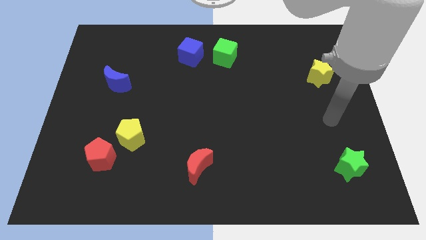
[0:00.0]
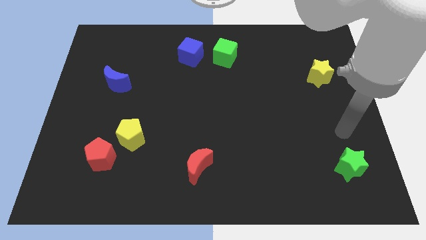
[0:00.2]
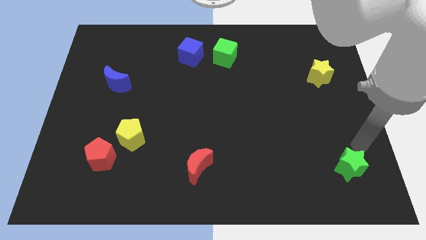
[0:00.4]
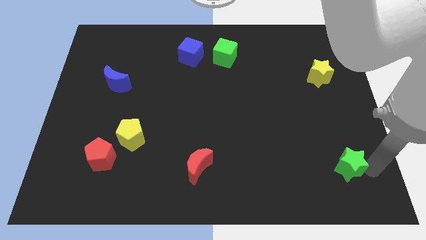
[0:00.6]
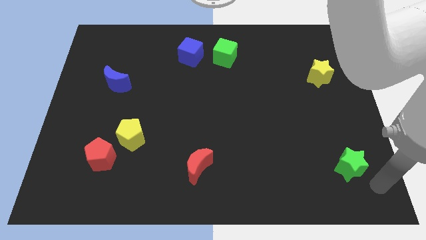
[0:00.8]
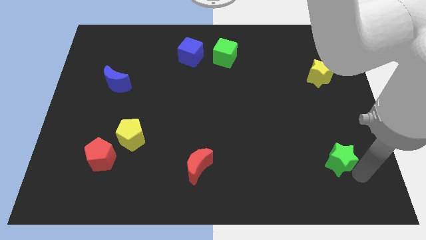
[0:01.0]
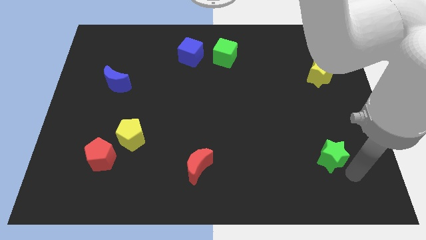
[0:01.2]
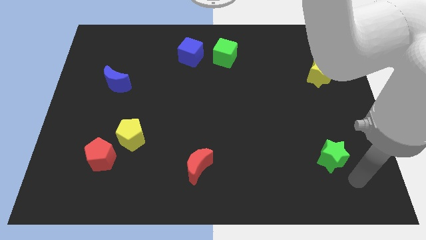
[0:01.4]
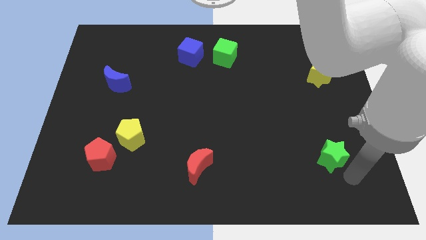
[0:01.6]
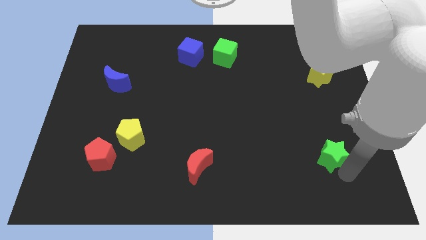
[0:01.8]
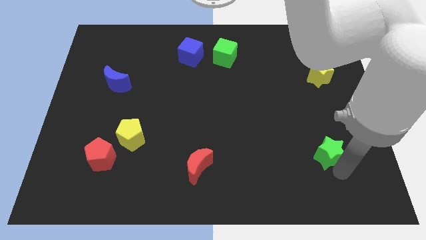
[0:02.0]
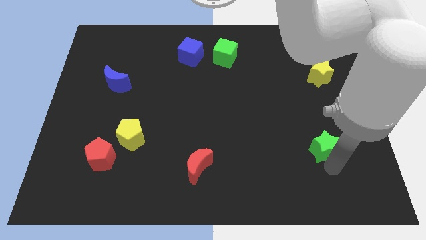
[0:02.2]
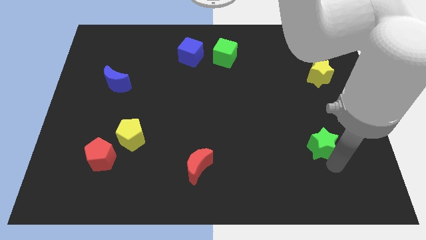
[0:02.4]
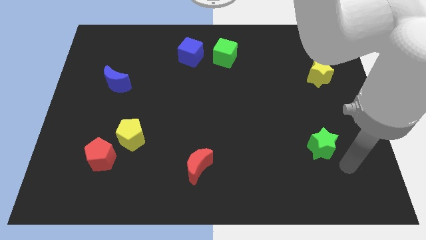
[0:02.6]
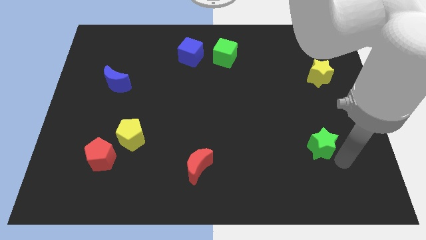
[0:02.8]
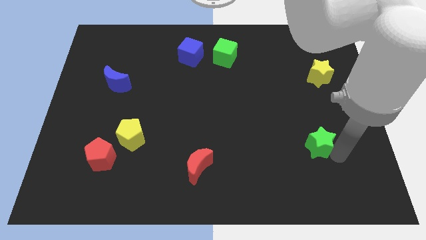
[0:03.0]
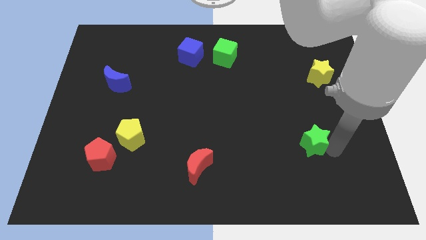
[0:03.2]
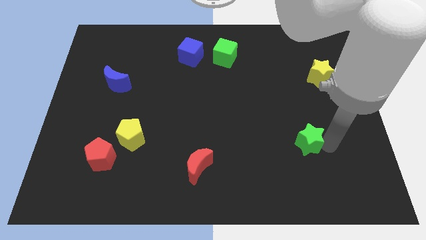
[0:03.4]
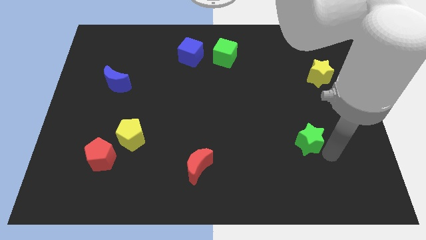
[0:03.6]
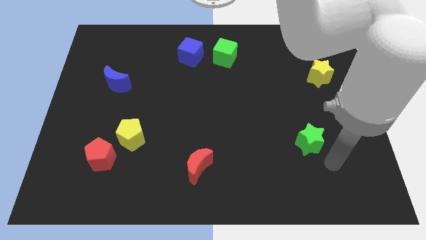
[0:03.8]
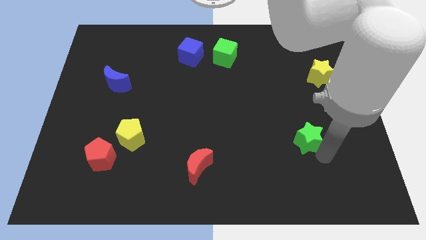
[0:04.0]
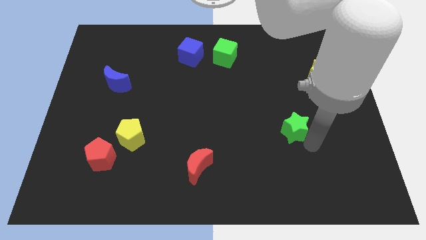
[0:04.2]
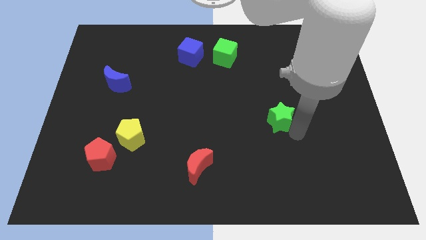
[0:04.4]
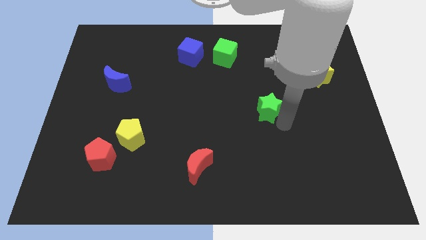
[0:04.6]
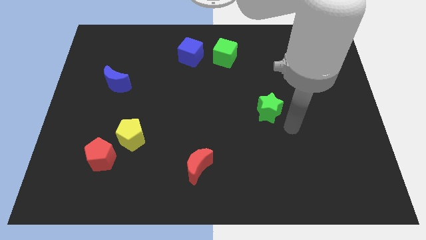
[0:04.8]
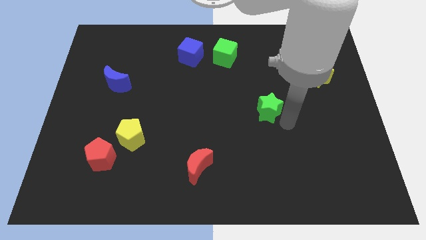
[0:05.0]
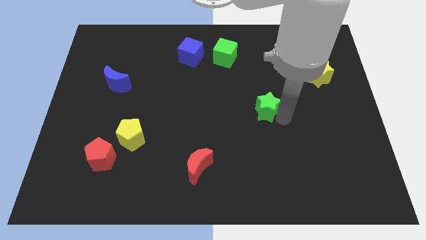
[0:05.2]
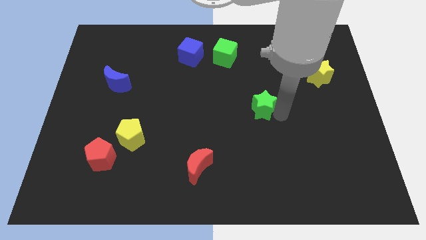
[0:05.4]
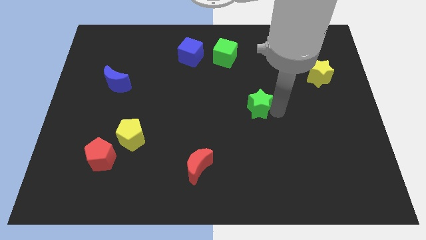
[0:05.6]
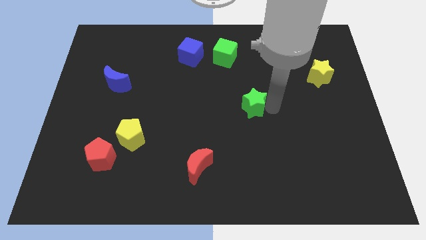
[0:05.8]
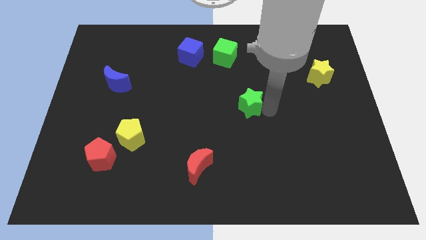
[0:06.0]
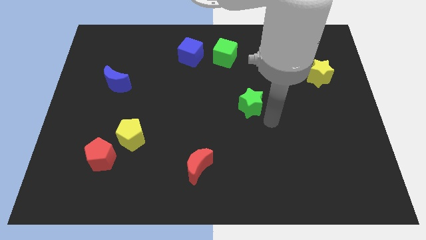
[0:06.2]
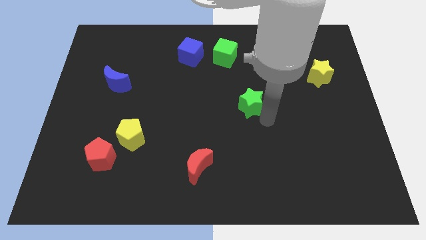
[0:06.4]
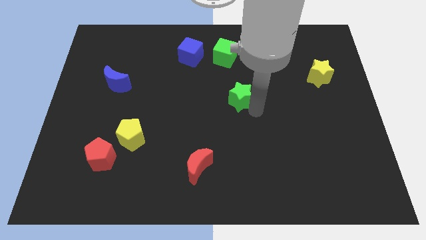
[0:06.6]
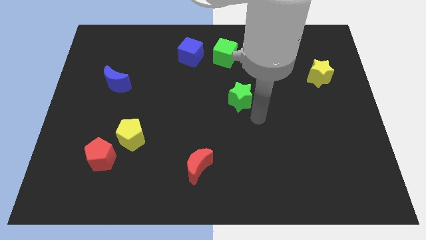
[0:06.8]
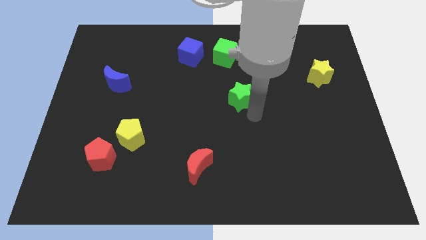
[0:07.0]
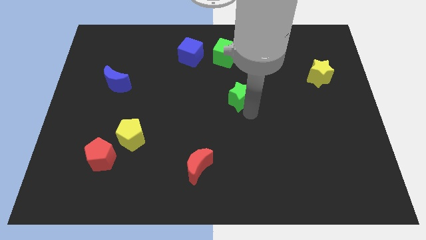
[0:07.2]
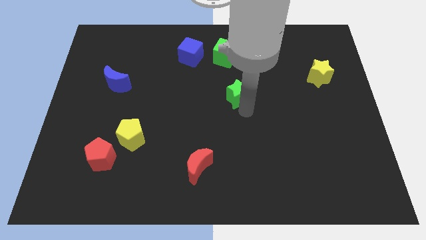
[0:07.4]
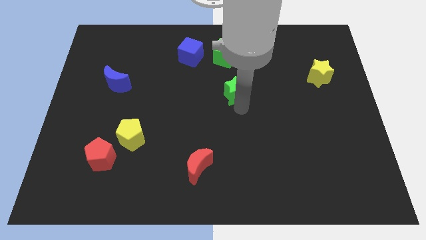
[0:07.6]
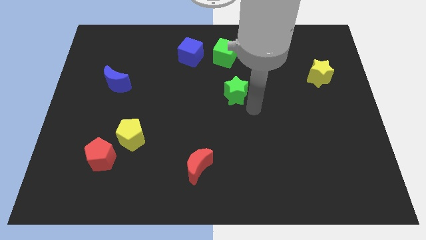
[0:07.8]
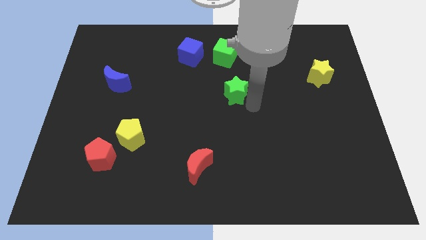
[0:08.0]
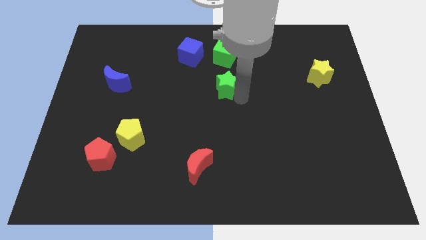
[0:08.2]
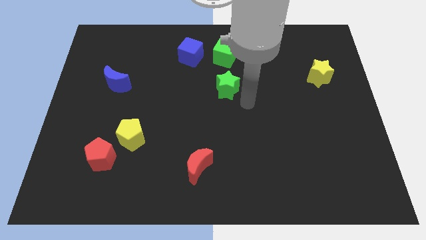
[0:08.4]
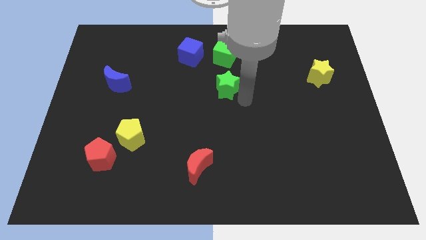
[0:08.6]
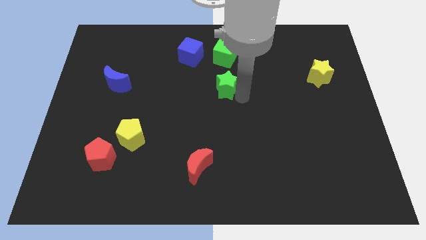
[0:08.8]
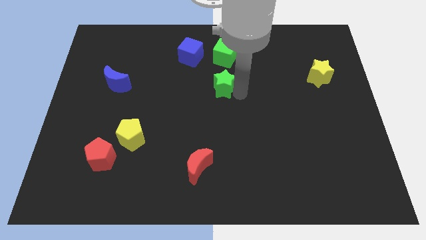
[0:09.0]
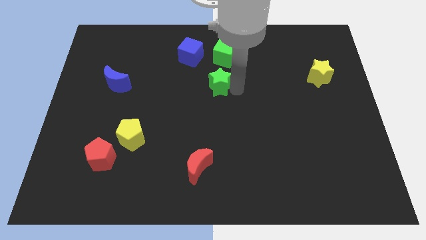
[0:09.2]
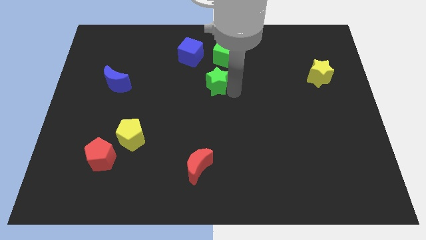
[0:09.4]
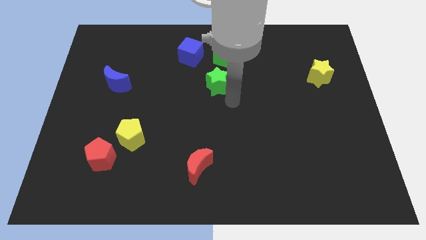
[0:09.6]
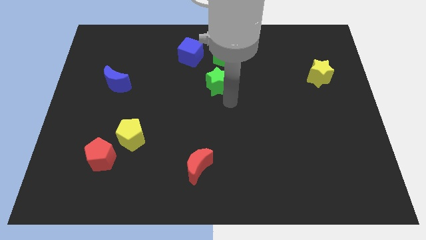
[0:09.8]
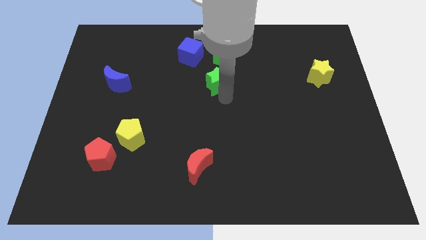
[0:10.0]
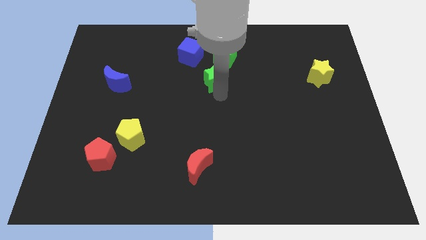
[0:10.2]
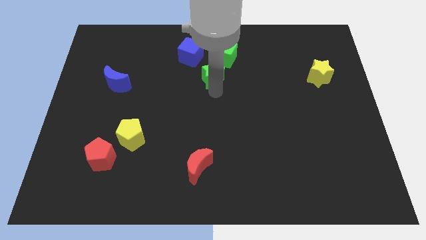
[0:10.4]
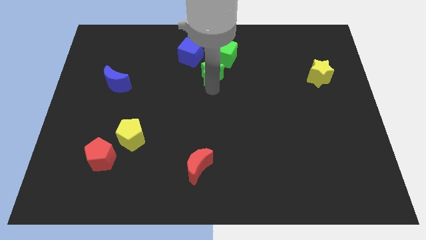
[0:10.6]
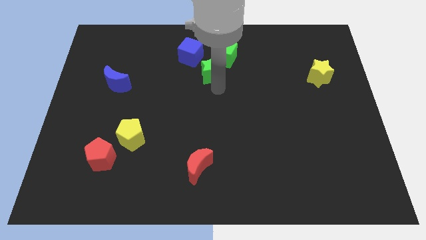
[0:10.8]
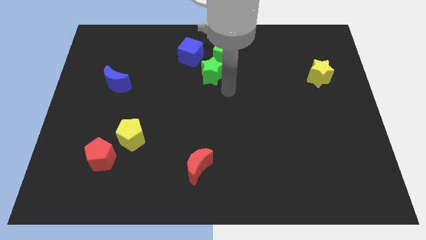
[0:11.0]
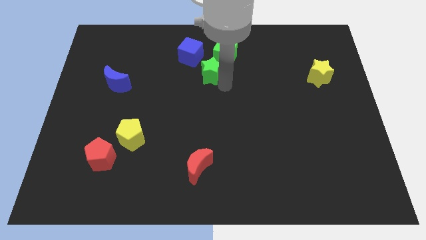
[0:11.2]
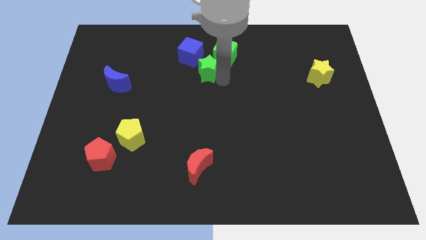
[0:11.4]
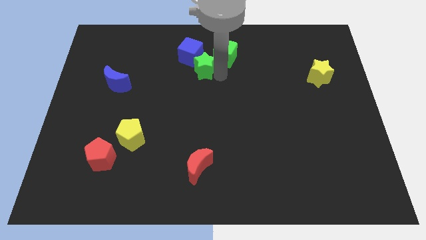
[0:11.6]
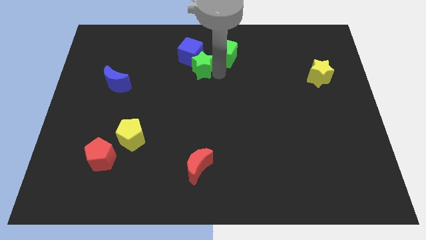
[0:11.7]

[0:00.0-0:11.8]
slide the green star close to the blue cube
